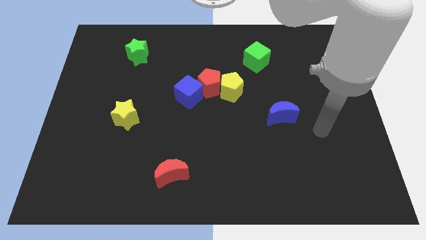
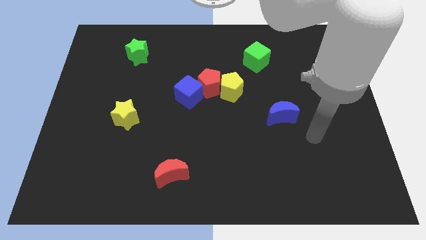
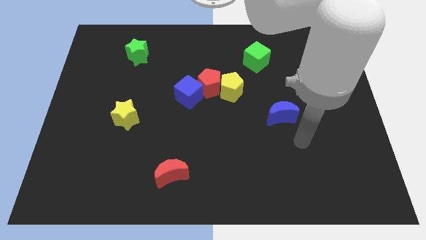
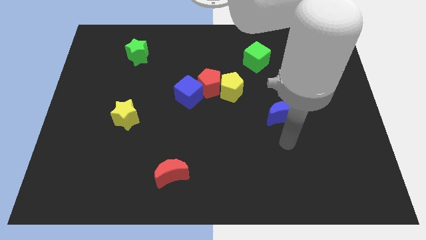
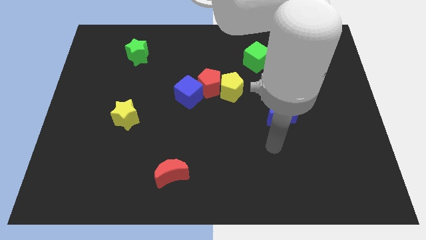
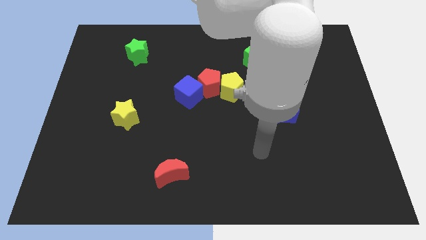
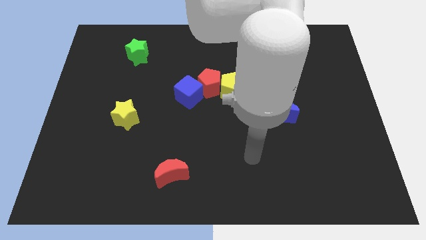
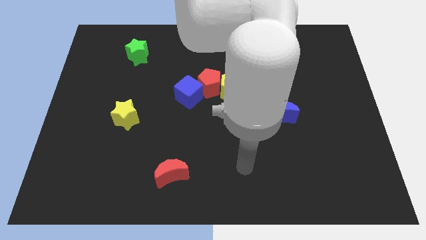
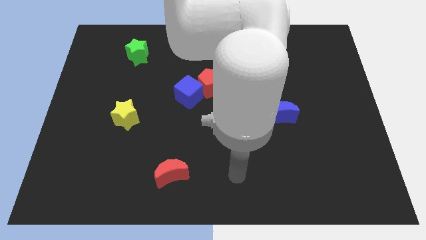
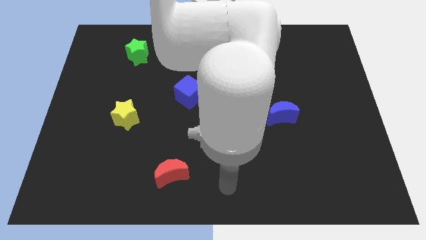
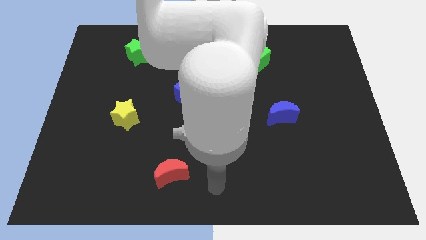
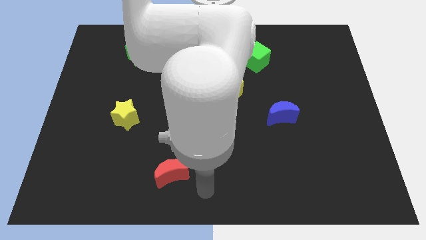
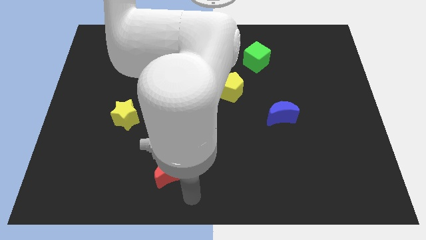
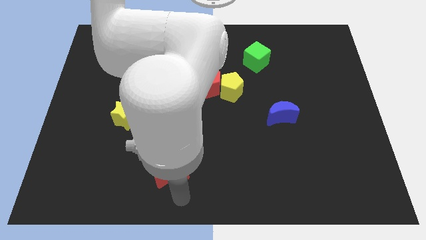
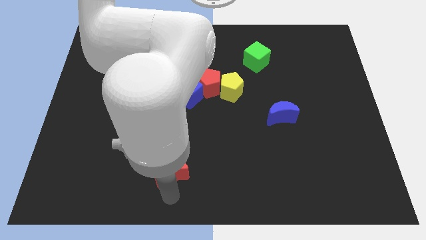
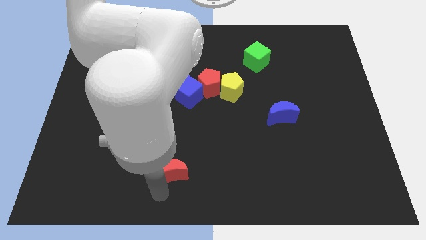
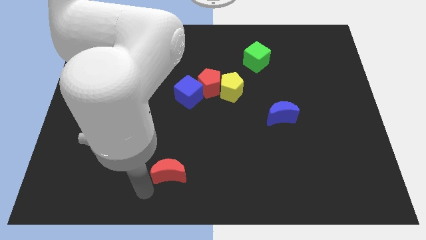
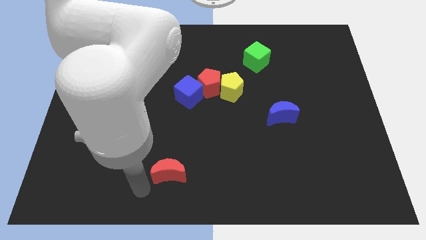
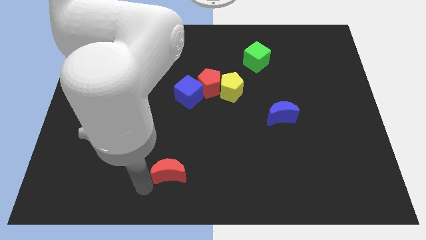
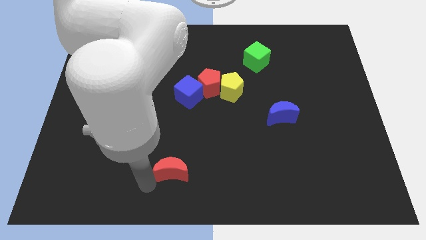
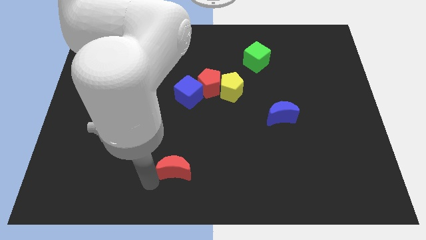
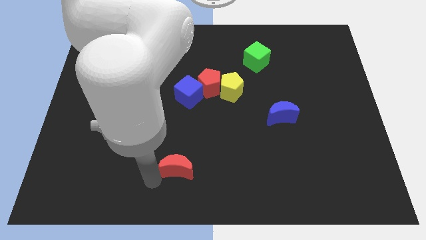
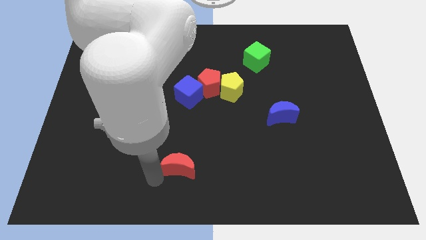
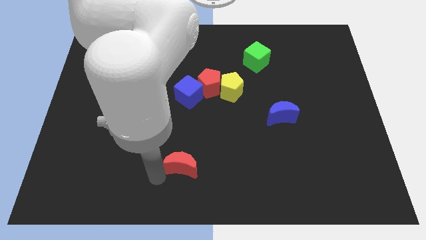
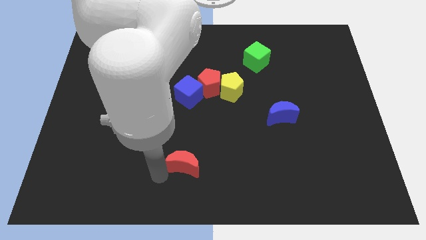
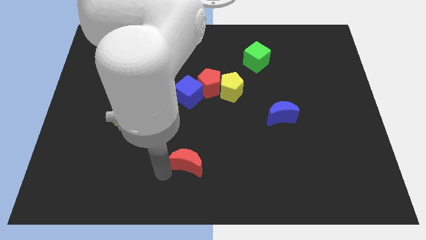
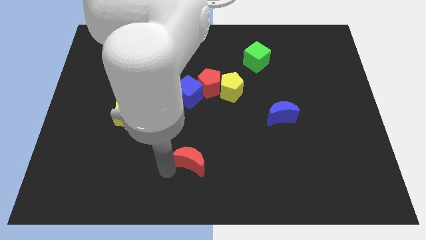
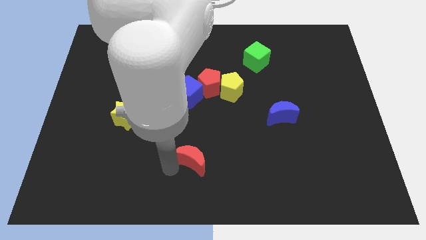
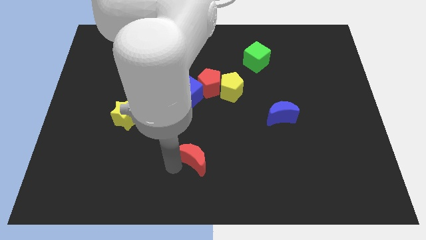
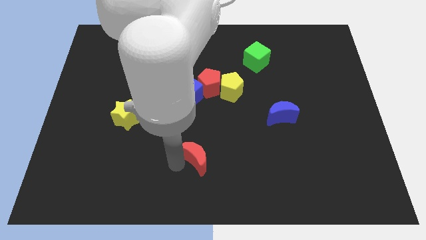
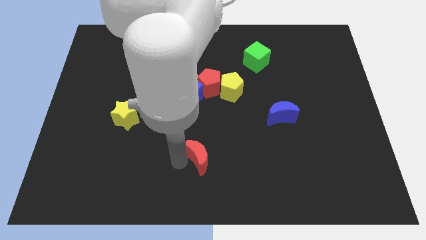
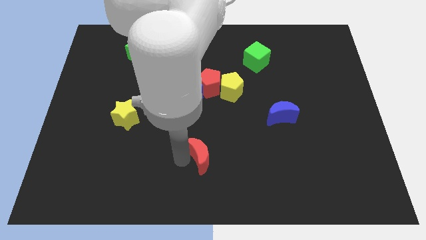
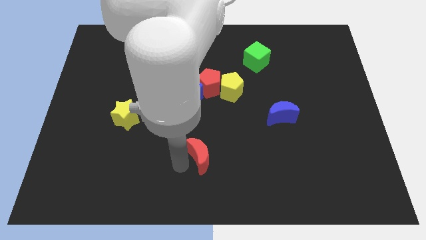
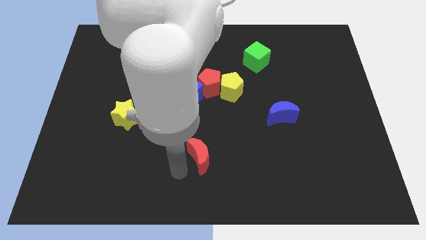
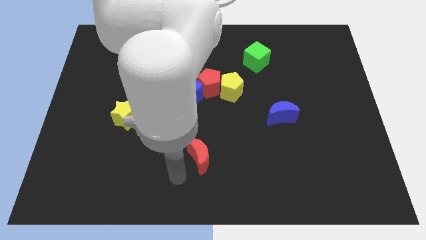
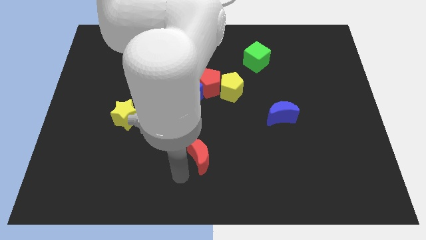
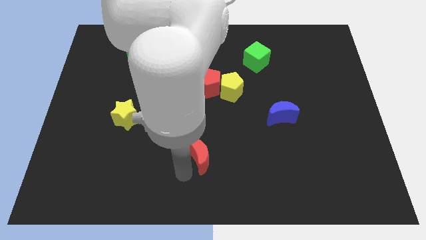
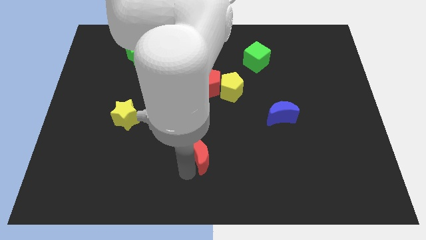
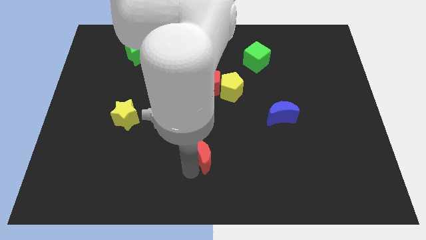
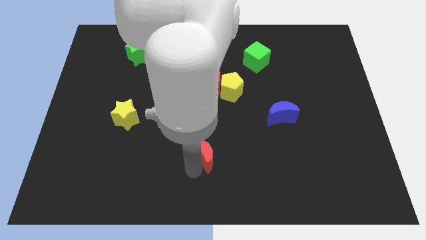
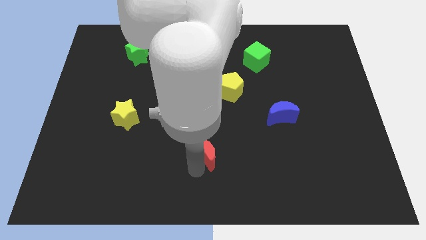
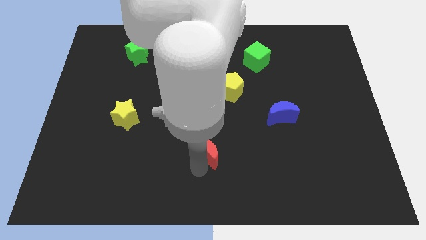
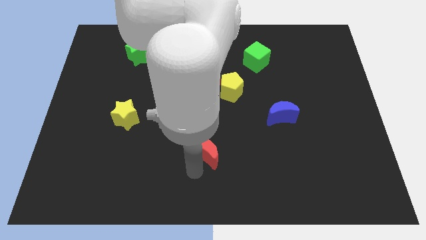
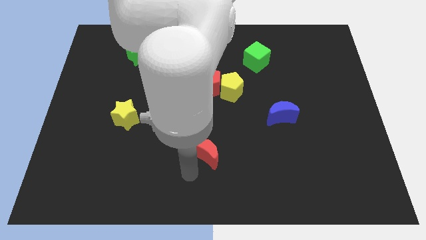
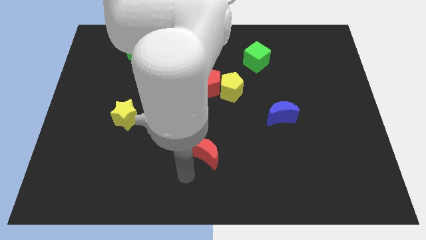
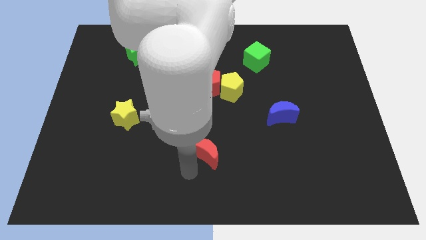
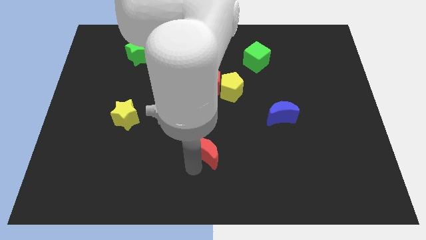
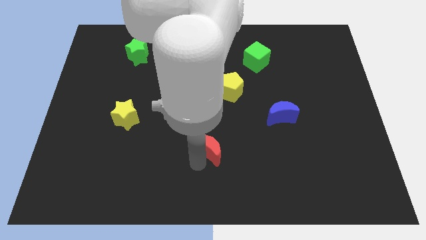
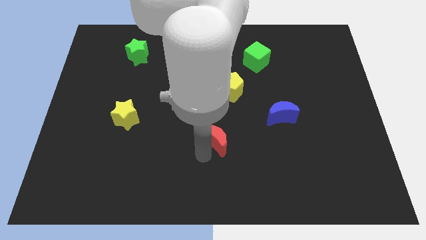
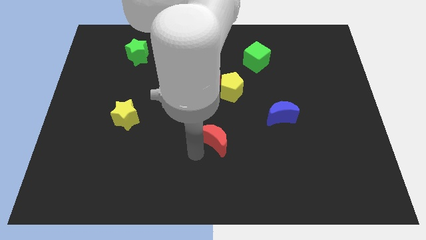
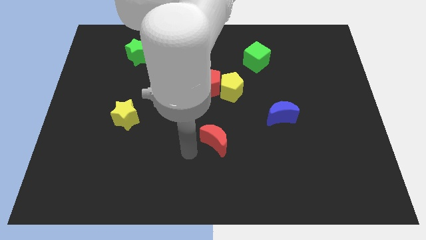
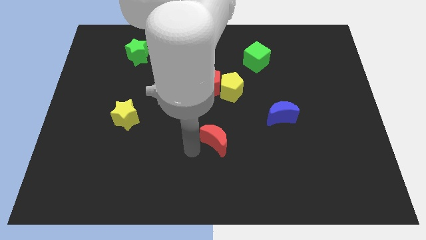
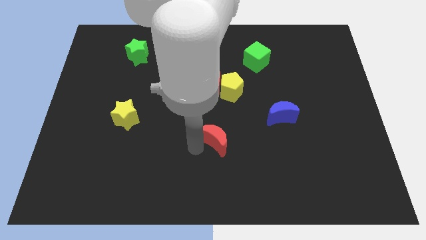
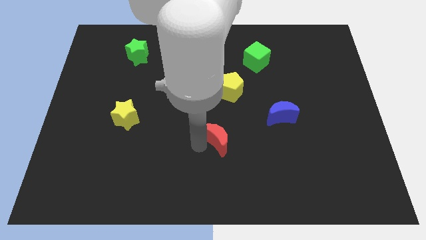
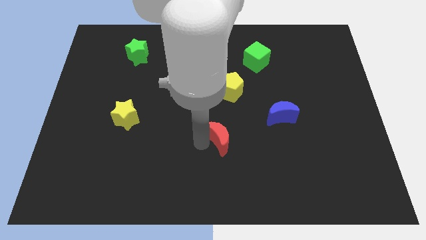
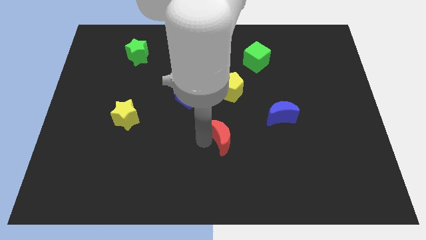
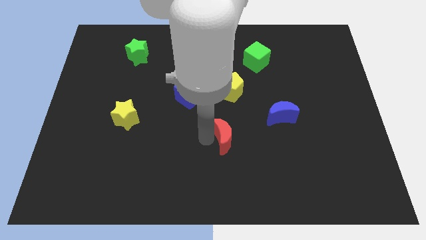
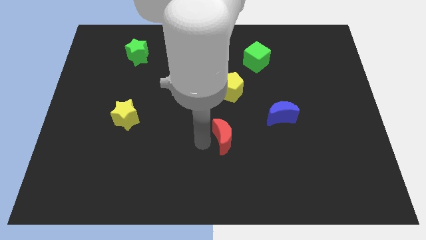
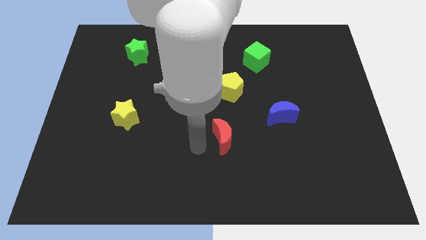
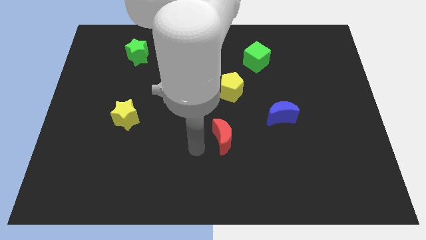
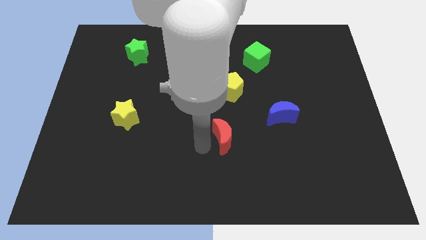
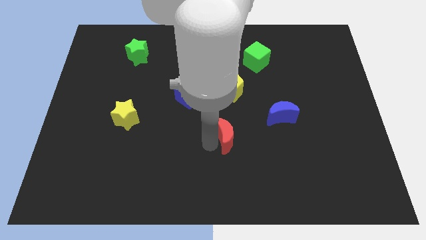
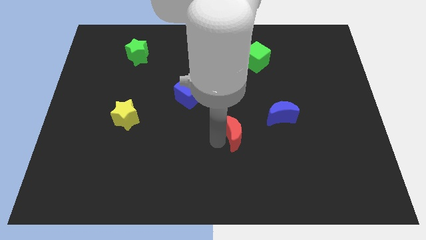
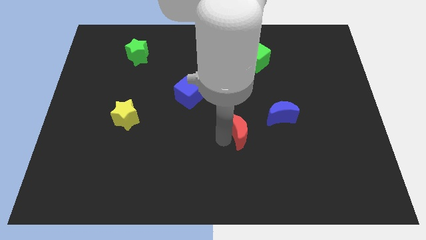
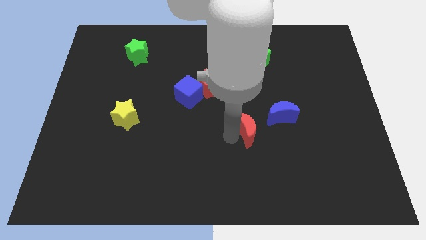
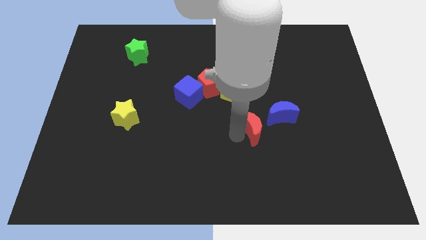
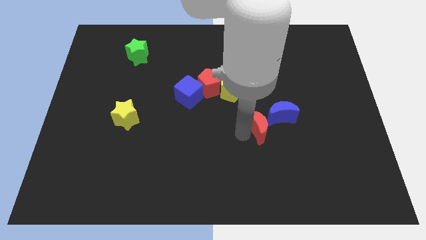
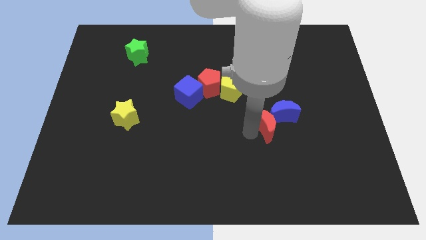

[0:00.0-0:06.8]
put the red moon close to the blue moon
